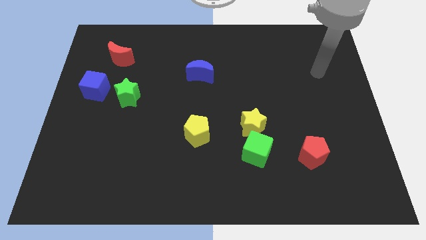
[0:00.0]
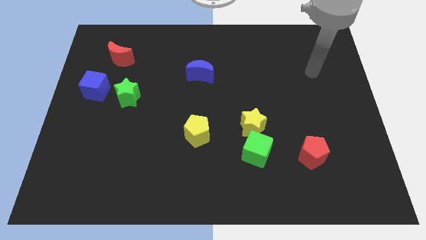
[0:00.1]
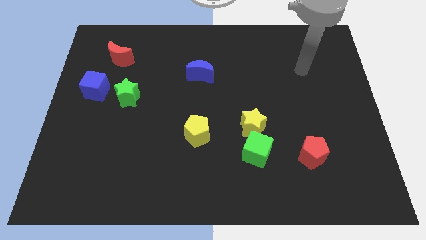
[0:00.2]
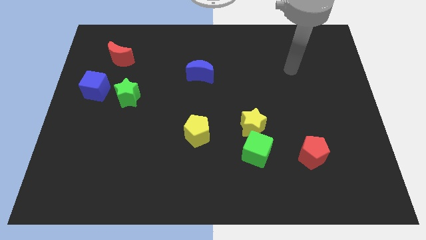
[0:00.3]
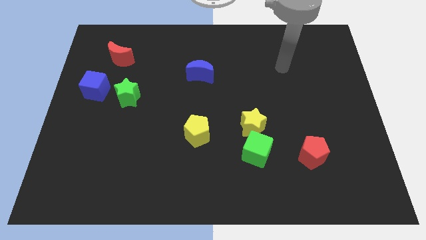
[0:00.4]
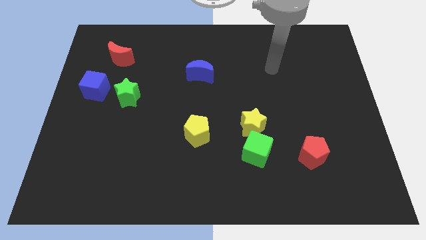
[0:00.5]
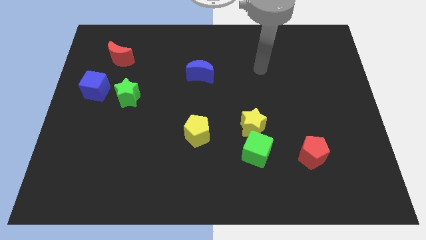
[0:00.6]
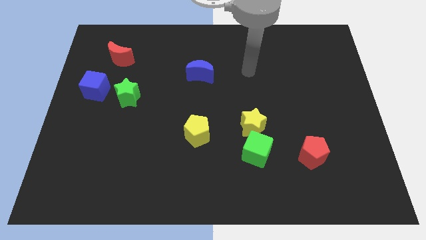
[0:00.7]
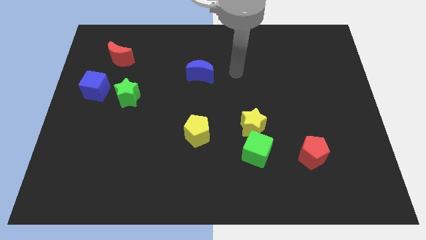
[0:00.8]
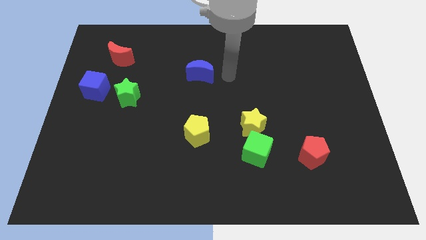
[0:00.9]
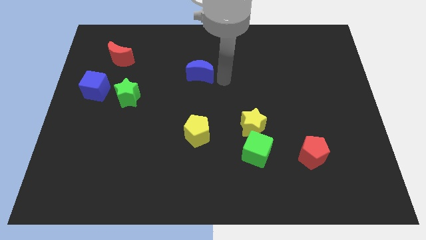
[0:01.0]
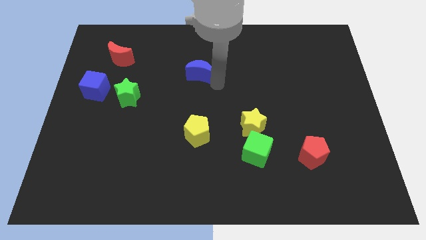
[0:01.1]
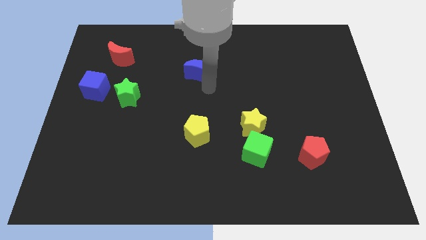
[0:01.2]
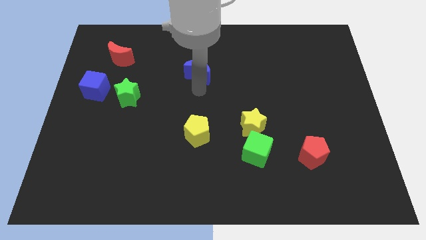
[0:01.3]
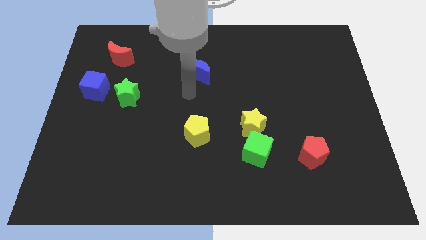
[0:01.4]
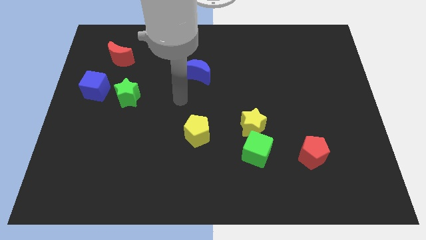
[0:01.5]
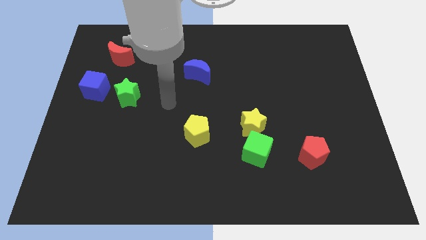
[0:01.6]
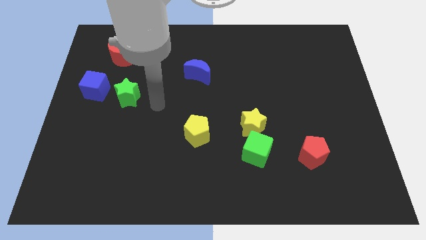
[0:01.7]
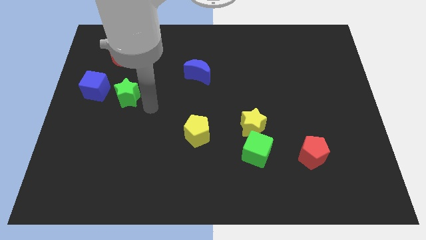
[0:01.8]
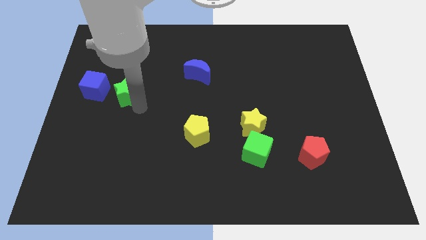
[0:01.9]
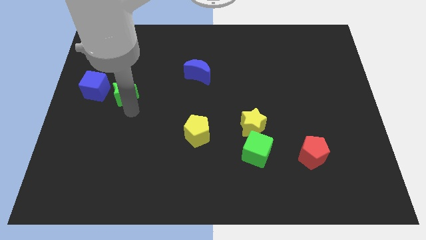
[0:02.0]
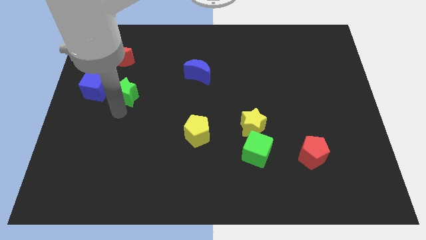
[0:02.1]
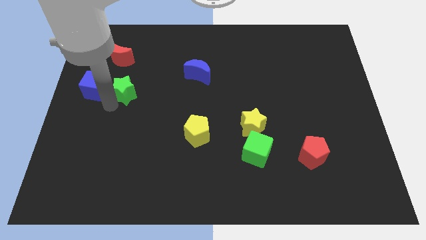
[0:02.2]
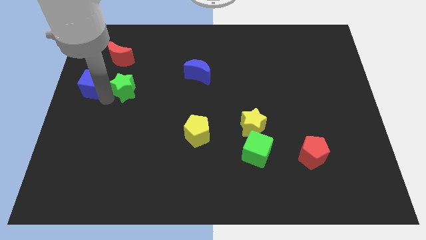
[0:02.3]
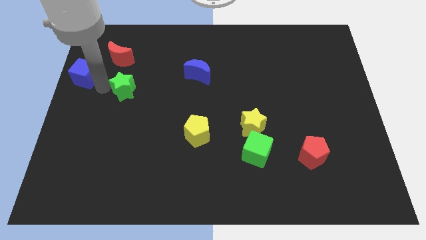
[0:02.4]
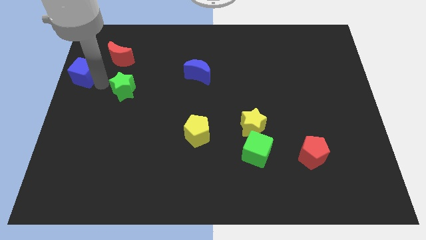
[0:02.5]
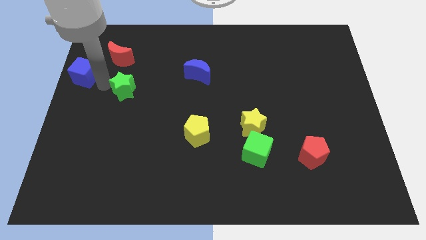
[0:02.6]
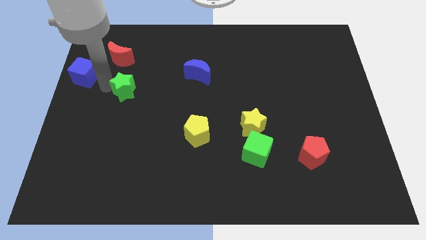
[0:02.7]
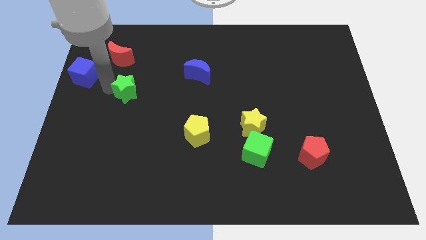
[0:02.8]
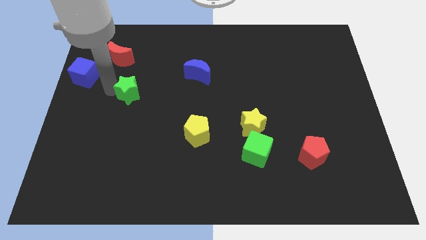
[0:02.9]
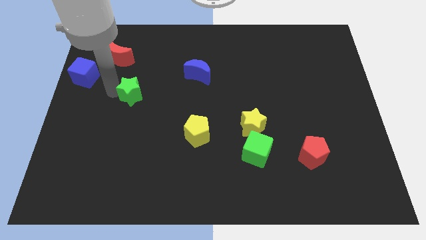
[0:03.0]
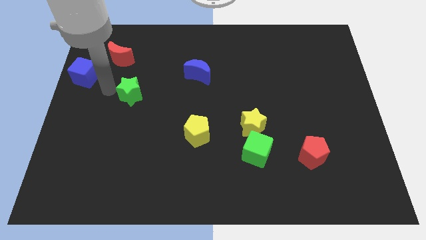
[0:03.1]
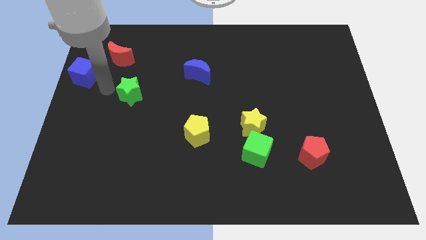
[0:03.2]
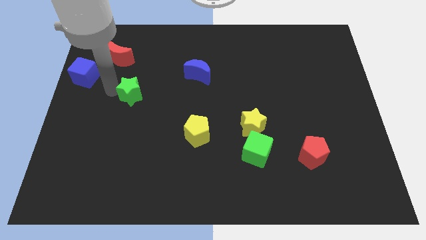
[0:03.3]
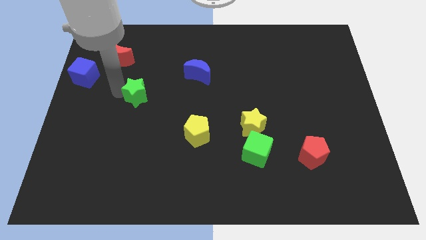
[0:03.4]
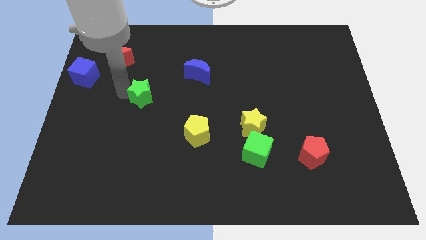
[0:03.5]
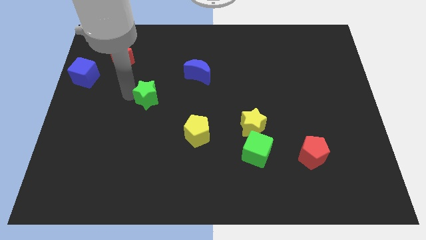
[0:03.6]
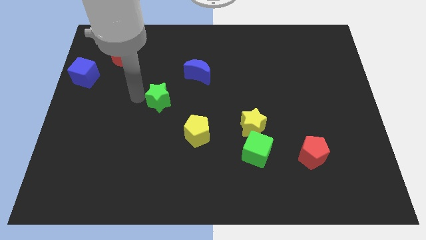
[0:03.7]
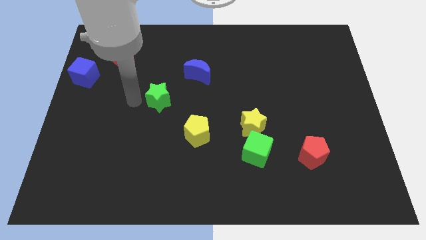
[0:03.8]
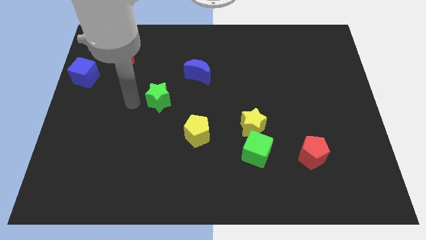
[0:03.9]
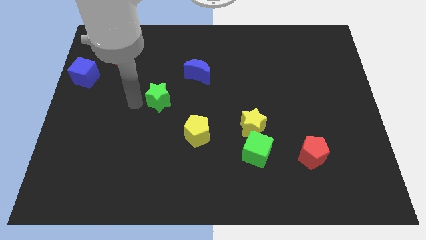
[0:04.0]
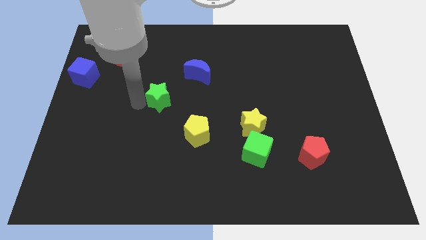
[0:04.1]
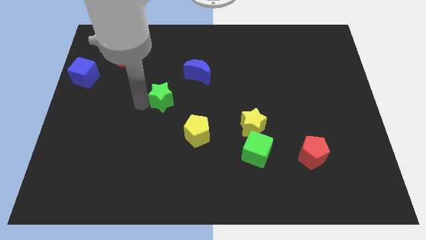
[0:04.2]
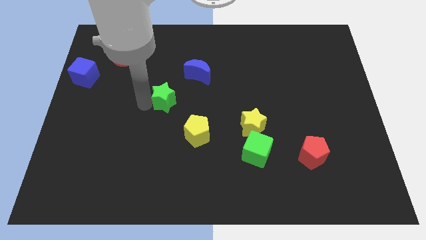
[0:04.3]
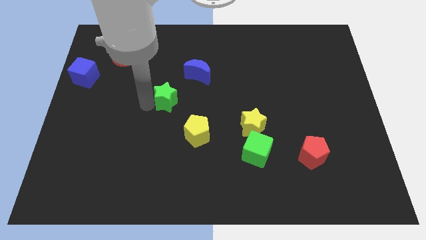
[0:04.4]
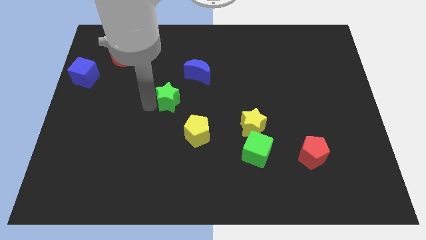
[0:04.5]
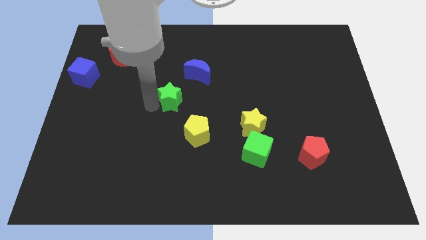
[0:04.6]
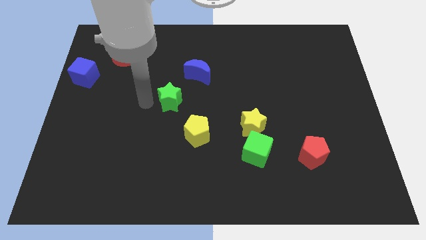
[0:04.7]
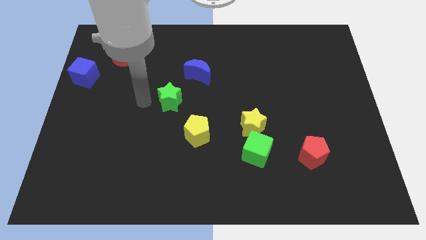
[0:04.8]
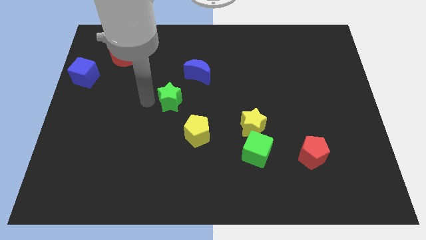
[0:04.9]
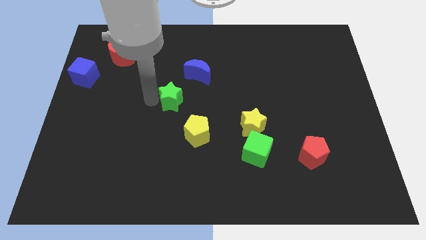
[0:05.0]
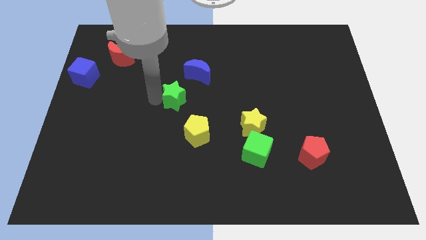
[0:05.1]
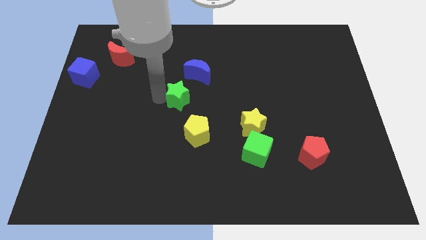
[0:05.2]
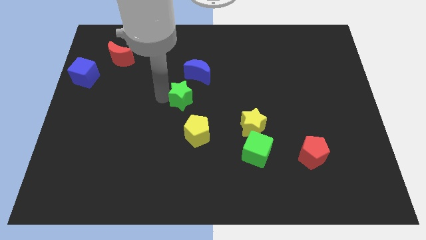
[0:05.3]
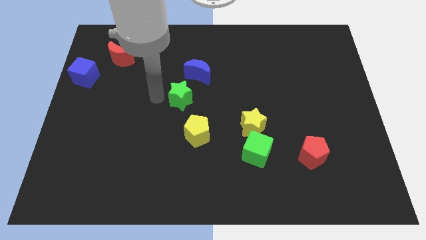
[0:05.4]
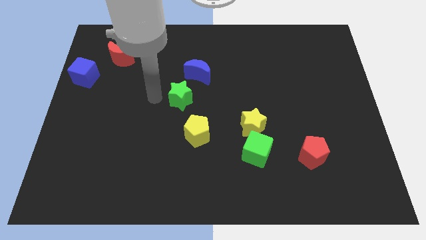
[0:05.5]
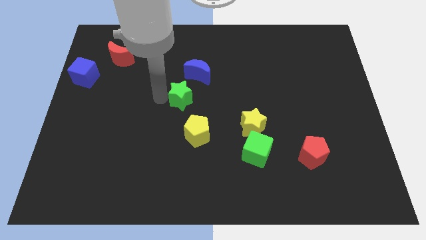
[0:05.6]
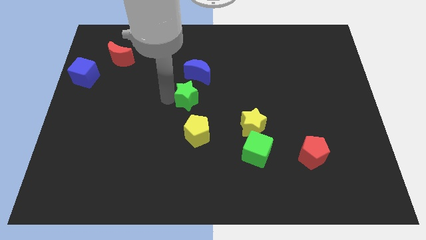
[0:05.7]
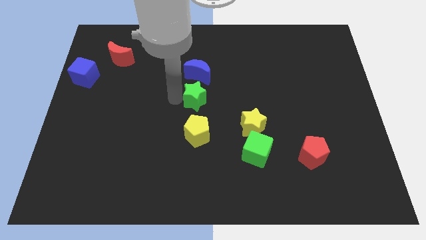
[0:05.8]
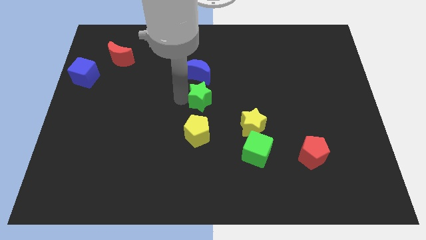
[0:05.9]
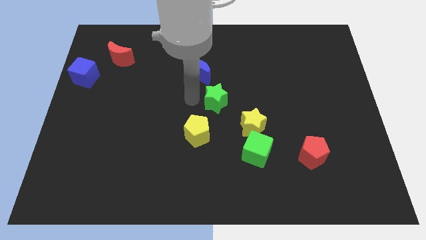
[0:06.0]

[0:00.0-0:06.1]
move the green star right

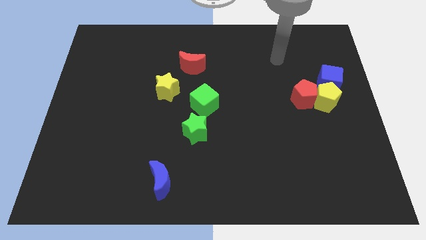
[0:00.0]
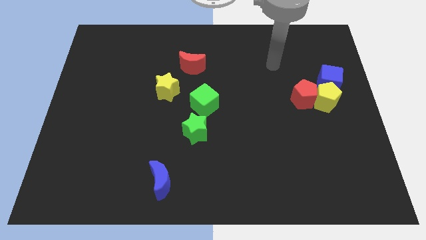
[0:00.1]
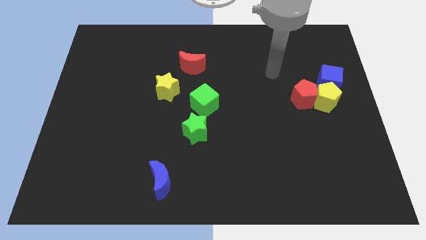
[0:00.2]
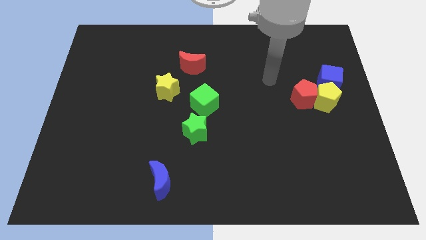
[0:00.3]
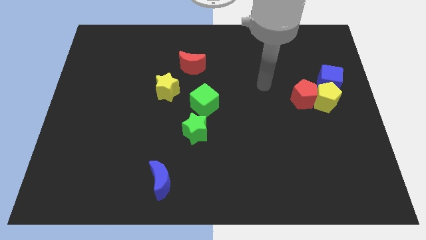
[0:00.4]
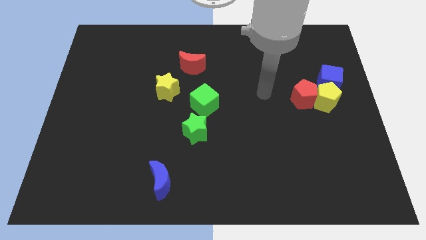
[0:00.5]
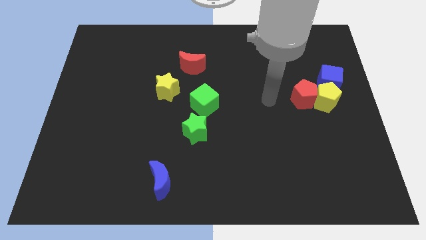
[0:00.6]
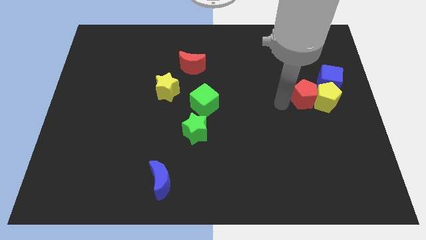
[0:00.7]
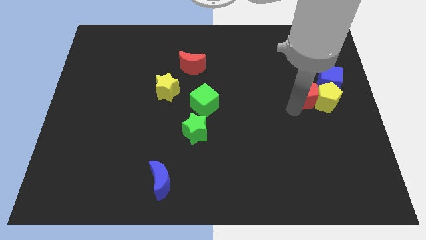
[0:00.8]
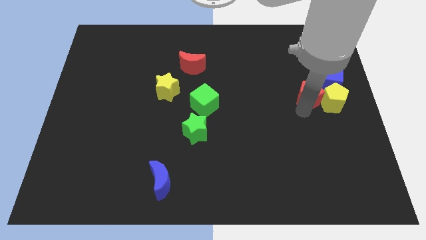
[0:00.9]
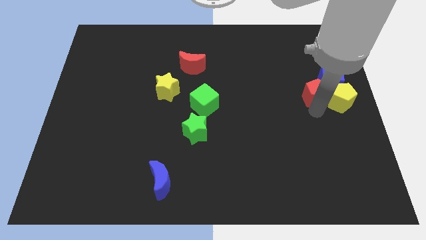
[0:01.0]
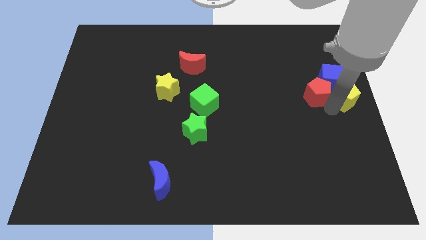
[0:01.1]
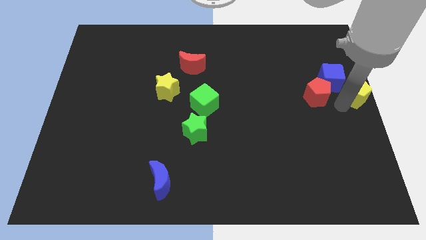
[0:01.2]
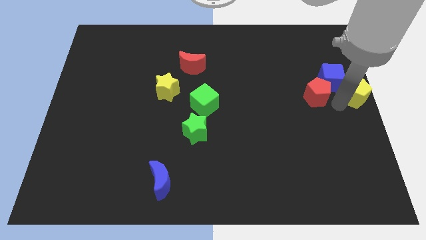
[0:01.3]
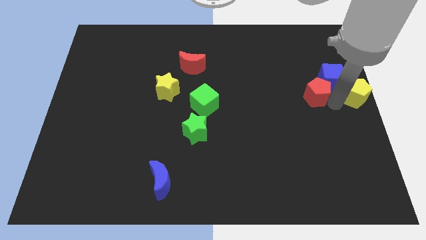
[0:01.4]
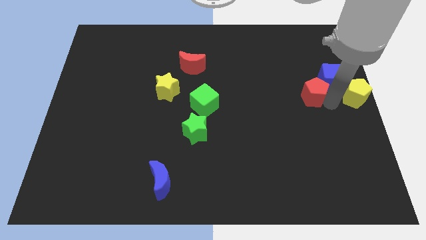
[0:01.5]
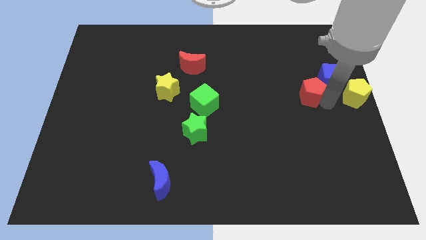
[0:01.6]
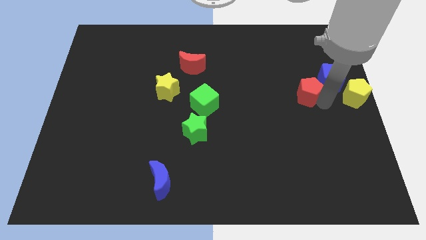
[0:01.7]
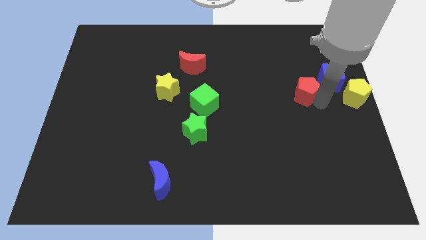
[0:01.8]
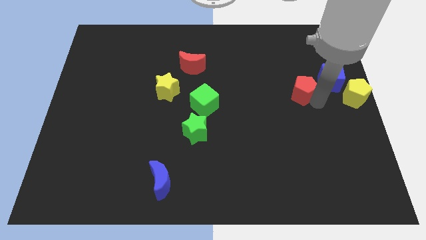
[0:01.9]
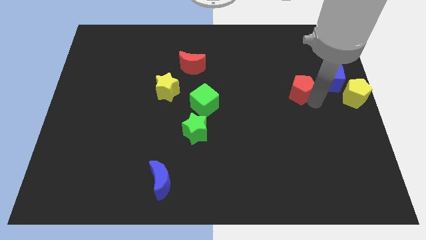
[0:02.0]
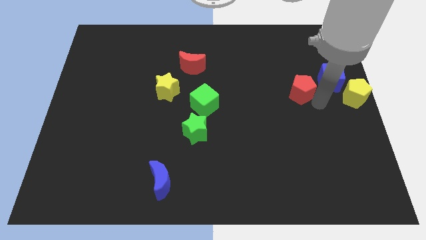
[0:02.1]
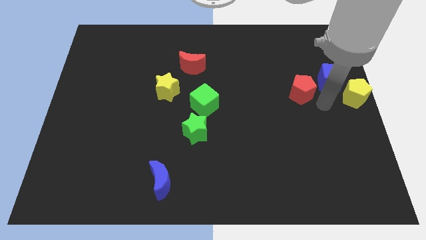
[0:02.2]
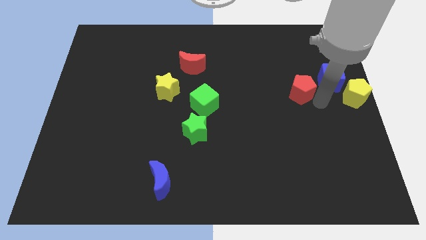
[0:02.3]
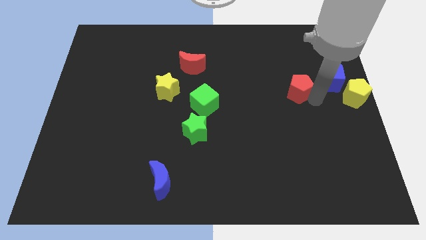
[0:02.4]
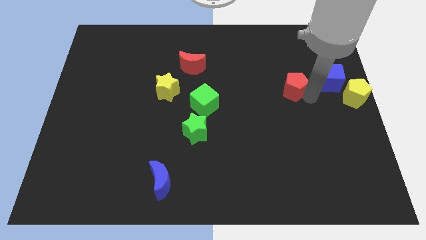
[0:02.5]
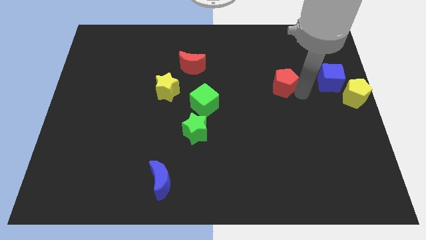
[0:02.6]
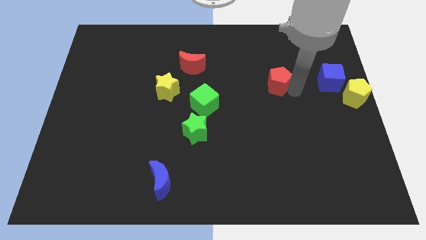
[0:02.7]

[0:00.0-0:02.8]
push the red pentagon upwards and then left a bit
